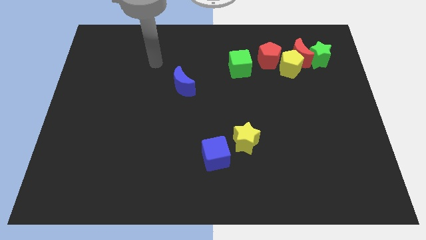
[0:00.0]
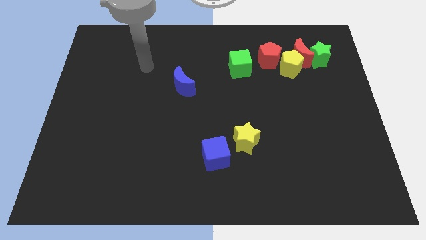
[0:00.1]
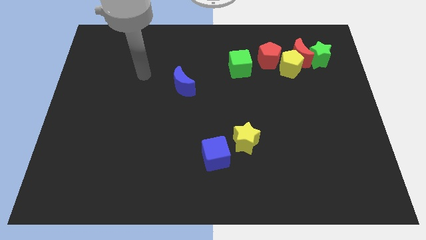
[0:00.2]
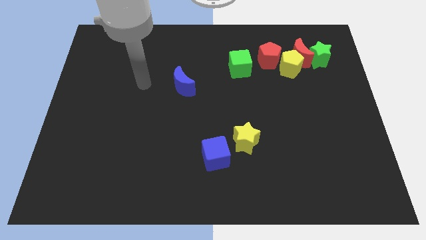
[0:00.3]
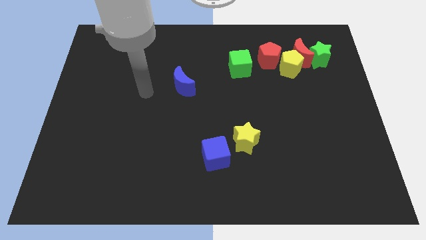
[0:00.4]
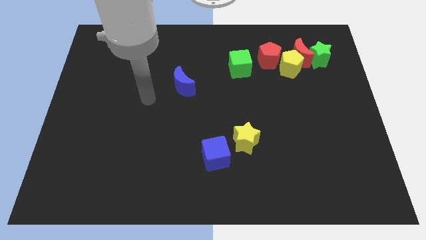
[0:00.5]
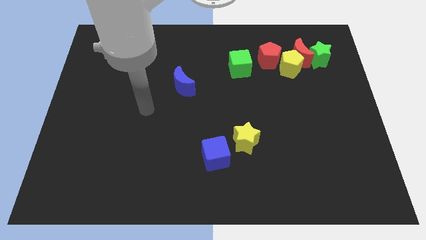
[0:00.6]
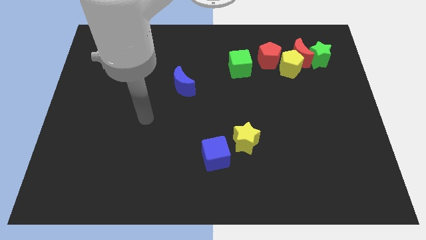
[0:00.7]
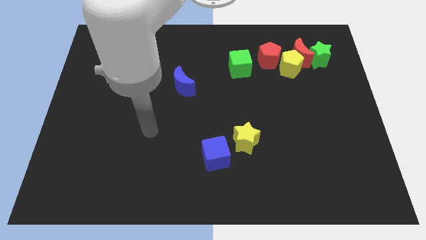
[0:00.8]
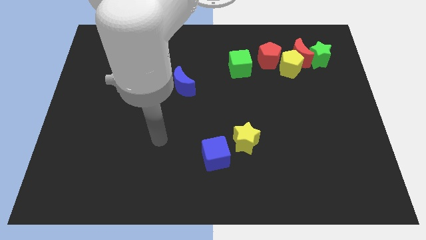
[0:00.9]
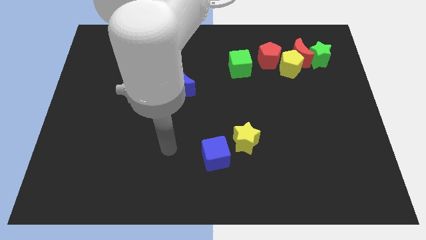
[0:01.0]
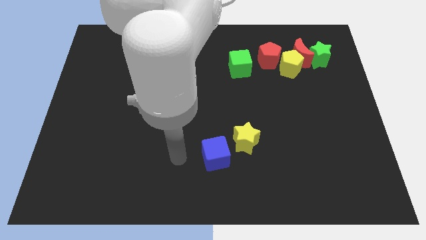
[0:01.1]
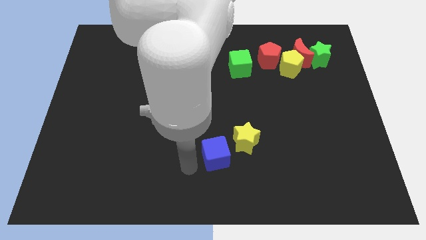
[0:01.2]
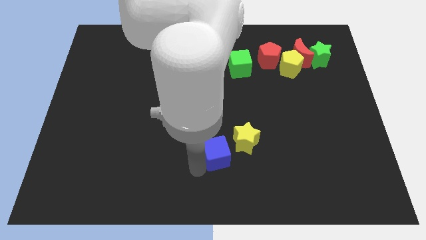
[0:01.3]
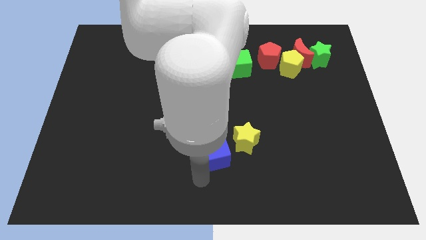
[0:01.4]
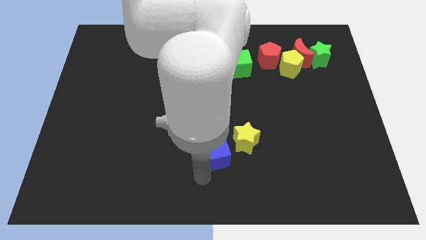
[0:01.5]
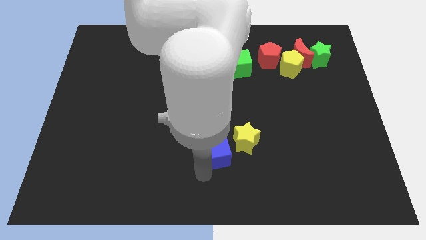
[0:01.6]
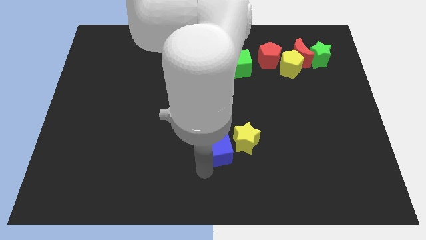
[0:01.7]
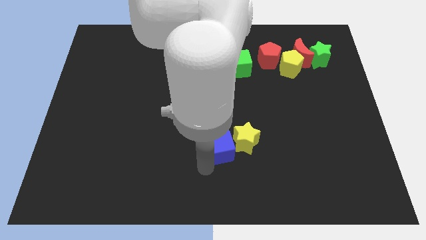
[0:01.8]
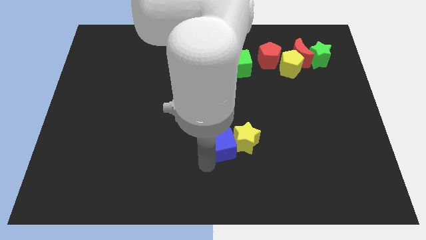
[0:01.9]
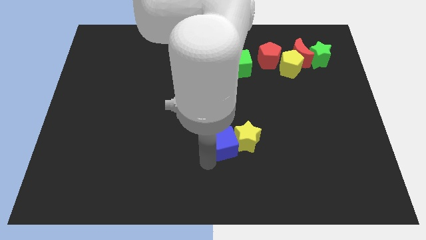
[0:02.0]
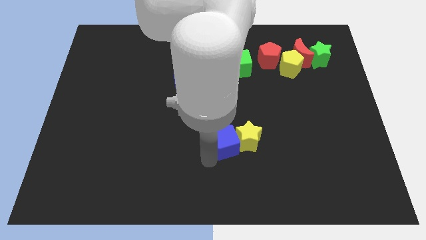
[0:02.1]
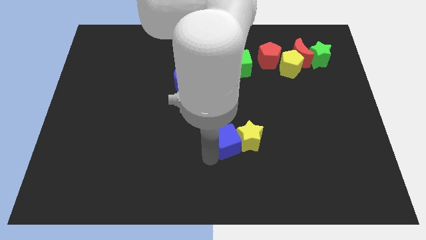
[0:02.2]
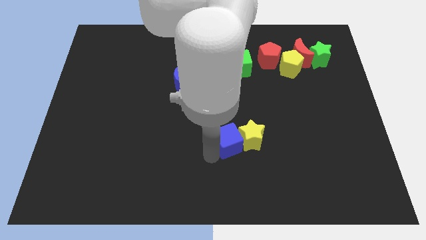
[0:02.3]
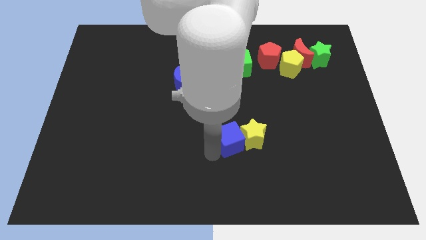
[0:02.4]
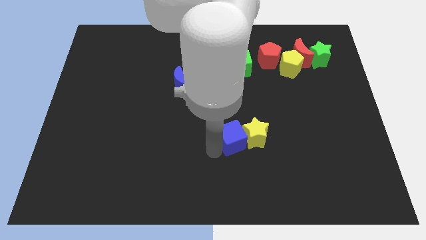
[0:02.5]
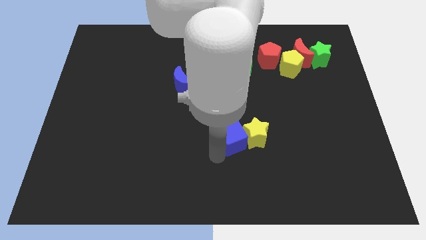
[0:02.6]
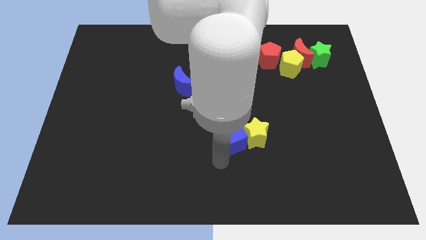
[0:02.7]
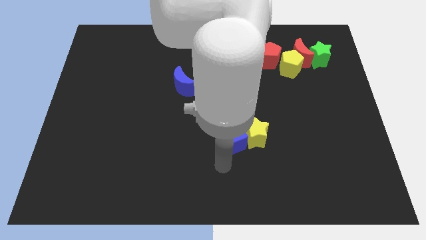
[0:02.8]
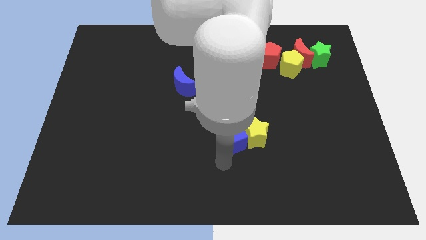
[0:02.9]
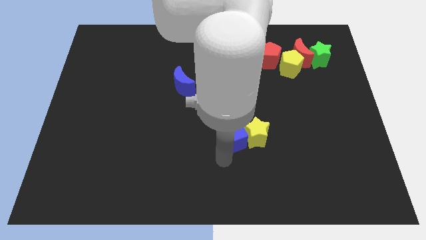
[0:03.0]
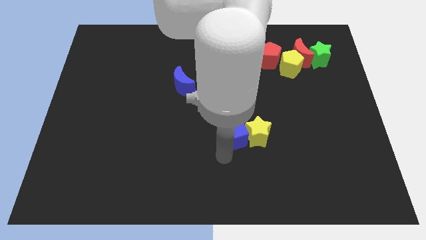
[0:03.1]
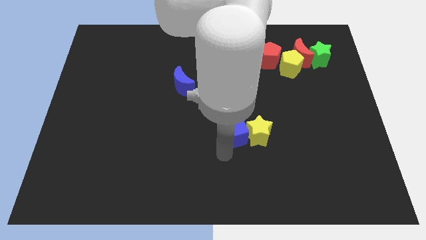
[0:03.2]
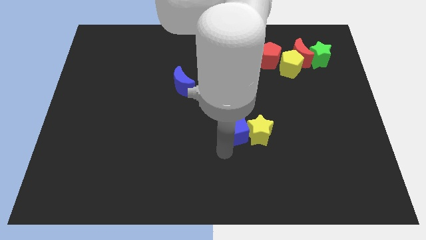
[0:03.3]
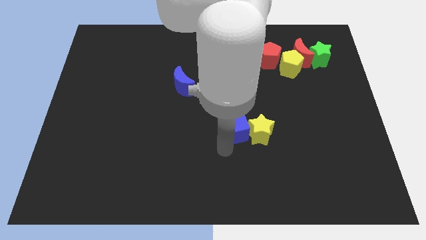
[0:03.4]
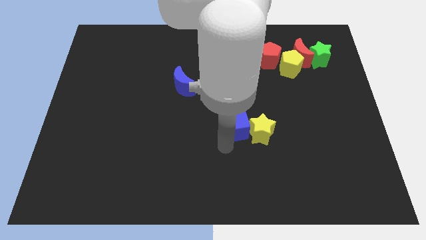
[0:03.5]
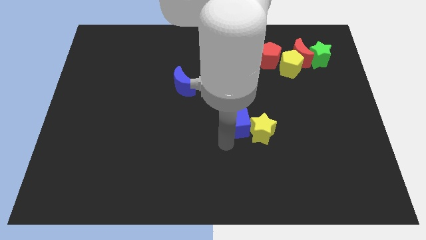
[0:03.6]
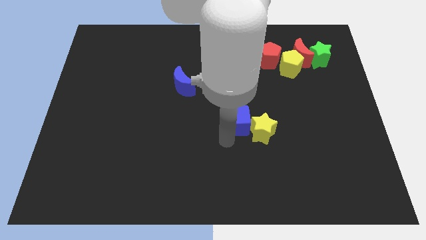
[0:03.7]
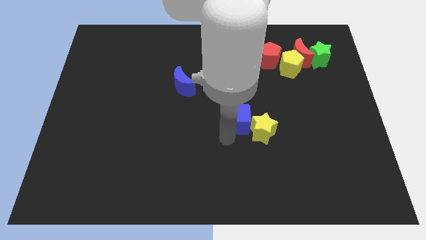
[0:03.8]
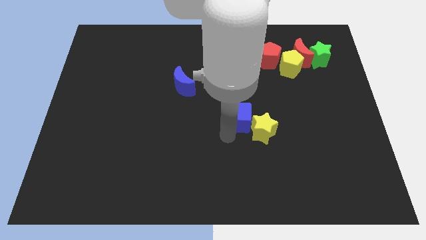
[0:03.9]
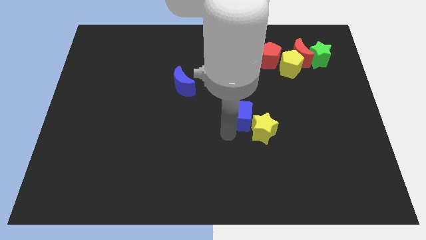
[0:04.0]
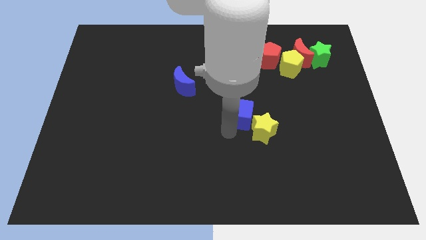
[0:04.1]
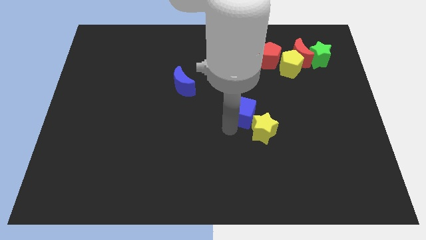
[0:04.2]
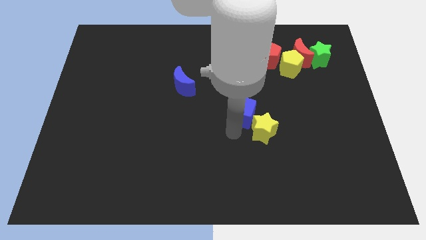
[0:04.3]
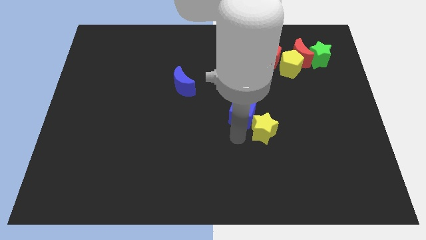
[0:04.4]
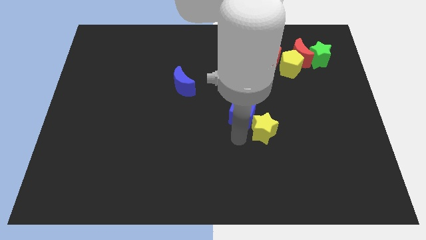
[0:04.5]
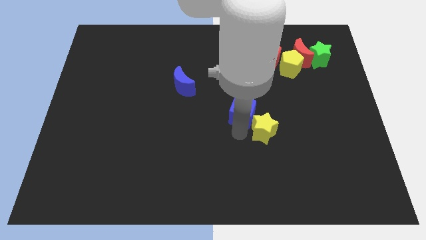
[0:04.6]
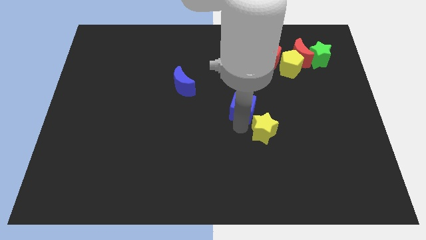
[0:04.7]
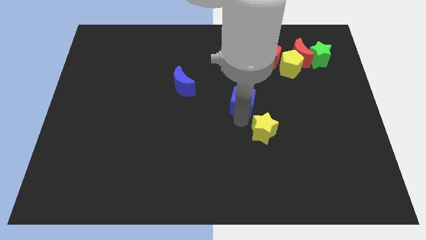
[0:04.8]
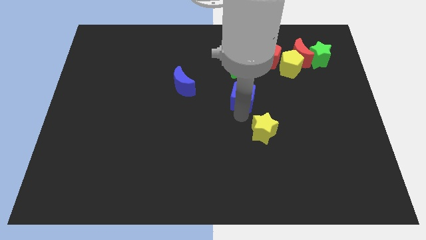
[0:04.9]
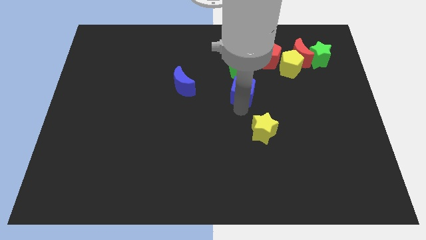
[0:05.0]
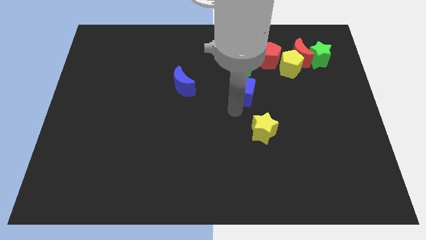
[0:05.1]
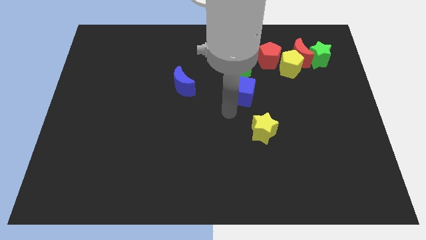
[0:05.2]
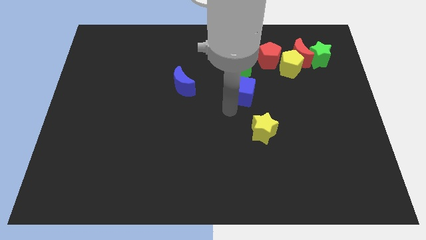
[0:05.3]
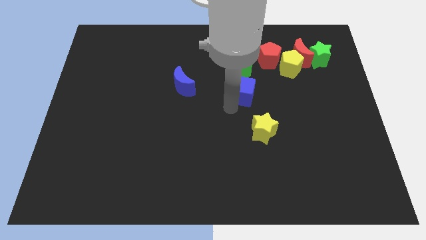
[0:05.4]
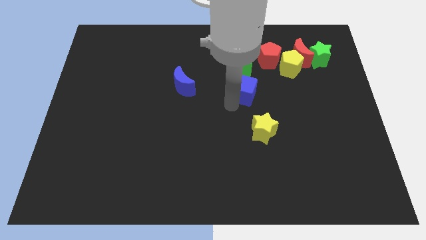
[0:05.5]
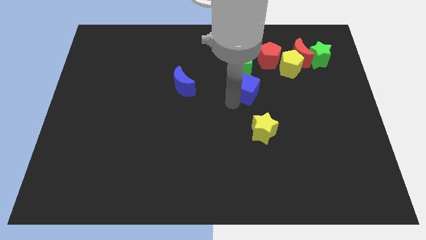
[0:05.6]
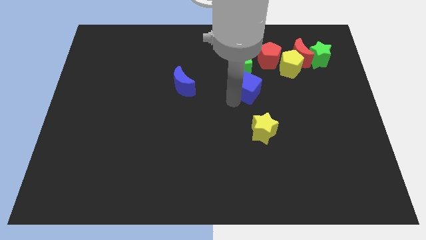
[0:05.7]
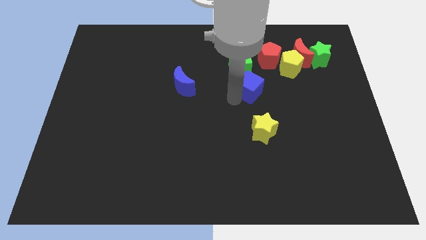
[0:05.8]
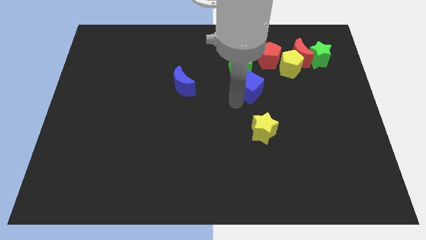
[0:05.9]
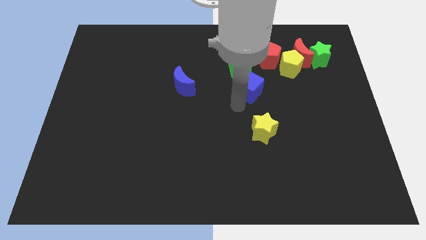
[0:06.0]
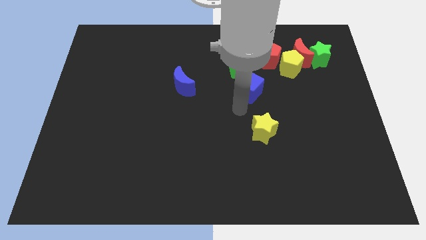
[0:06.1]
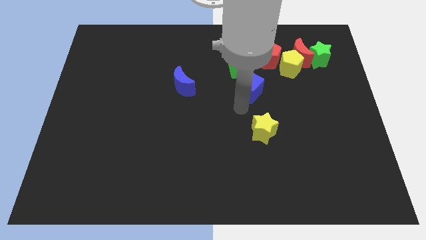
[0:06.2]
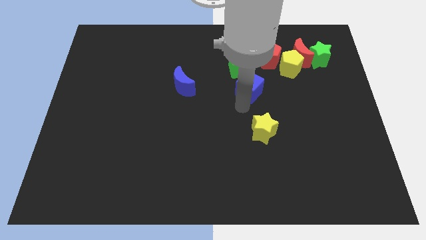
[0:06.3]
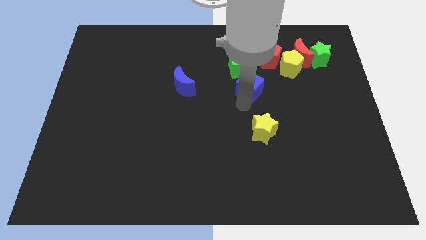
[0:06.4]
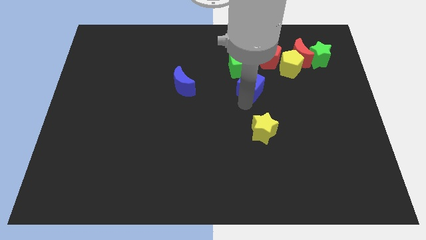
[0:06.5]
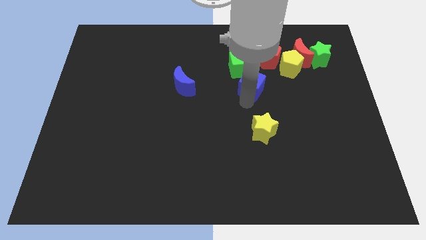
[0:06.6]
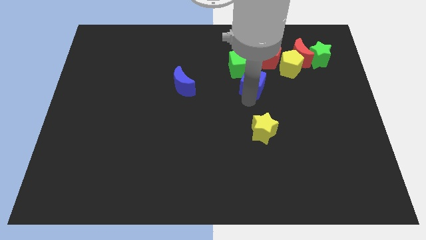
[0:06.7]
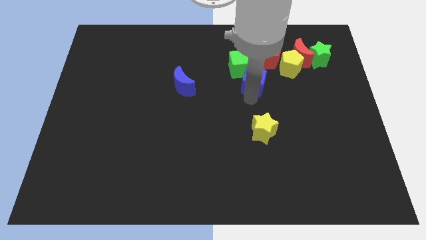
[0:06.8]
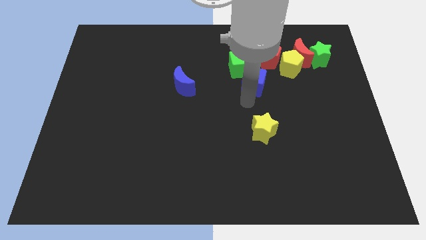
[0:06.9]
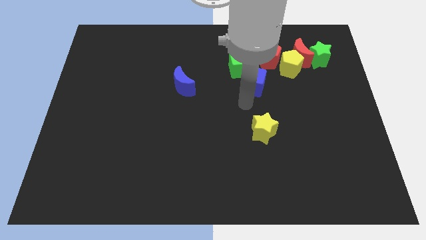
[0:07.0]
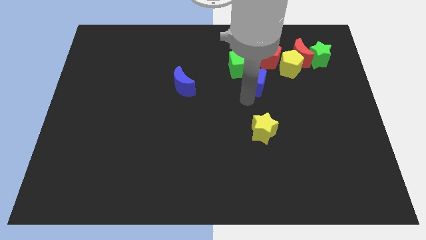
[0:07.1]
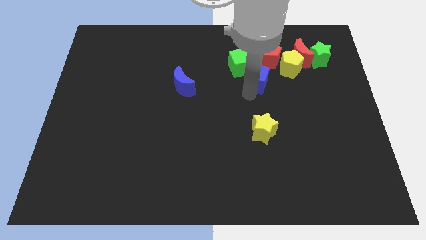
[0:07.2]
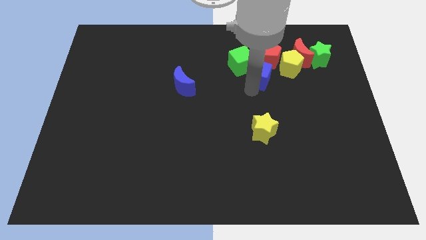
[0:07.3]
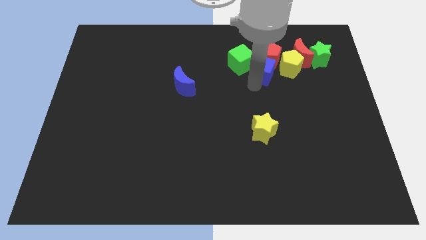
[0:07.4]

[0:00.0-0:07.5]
slide the blue cube to the red pentagon

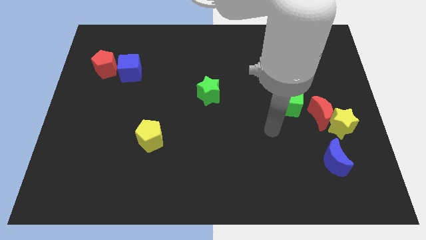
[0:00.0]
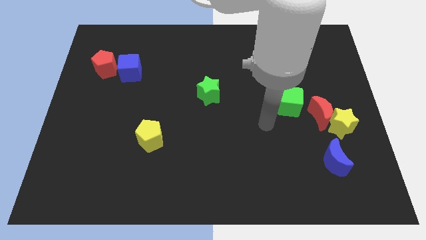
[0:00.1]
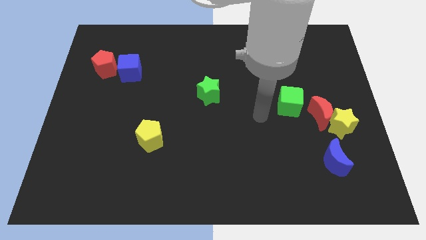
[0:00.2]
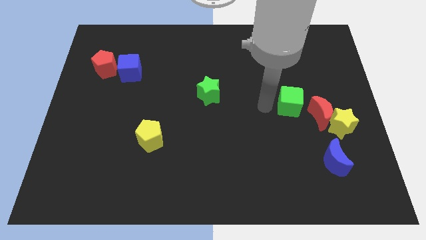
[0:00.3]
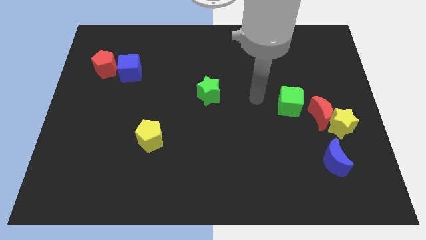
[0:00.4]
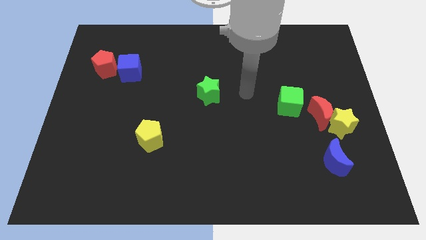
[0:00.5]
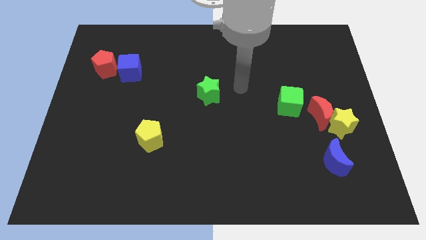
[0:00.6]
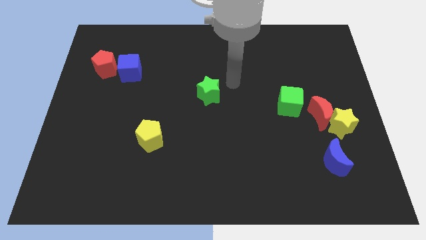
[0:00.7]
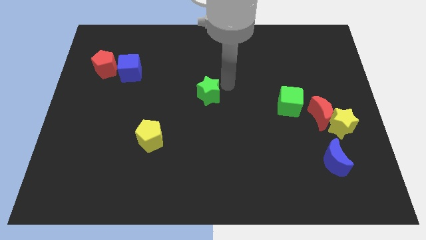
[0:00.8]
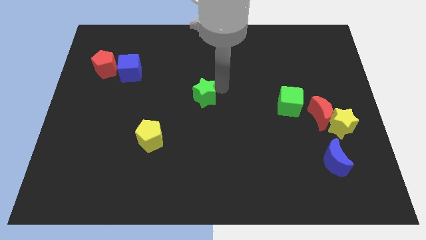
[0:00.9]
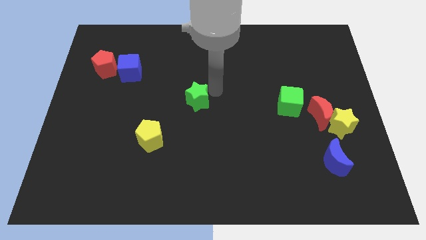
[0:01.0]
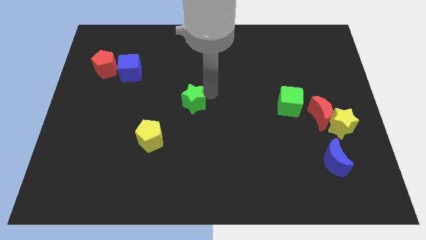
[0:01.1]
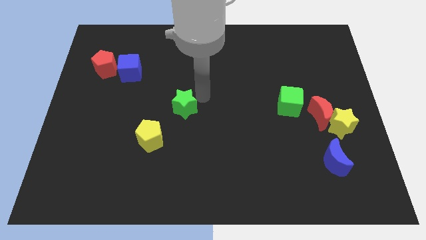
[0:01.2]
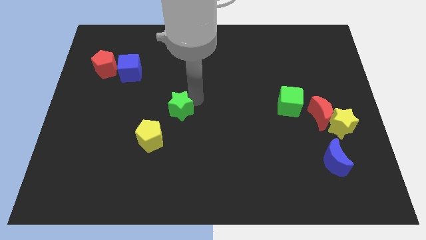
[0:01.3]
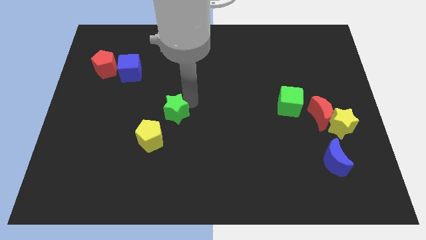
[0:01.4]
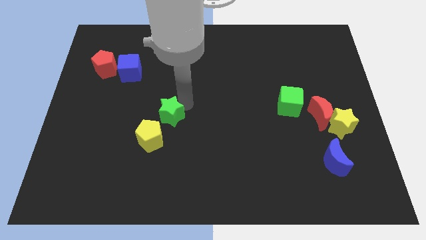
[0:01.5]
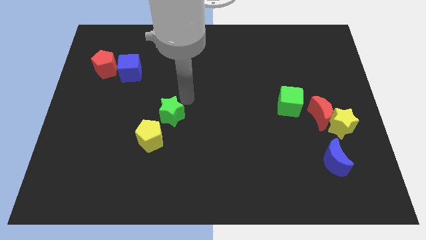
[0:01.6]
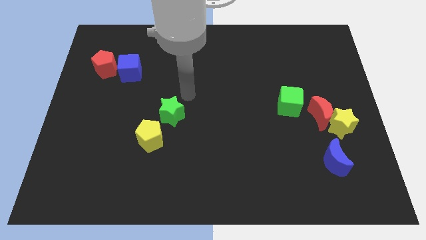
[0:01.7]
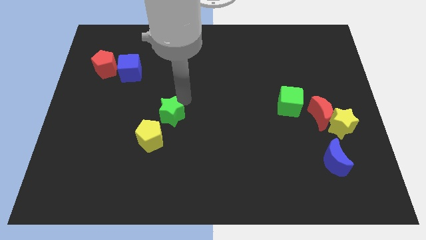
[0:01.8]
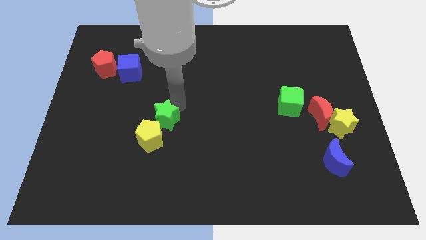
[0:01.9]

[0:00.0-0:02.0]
put the green star close to the yellow pentagon
